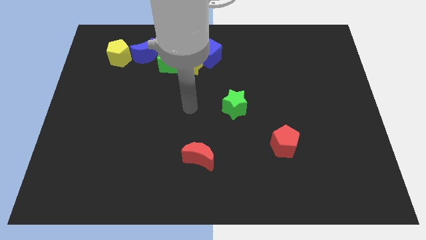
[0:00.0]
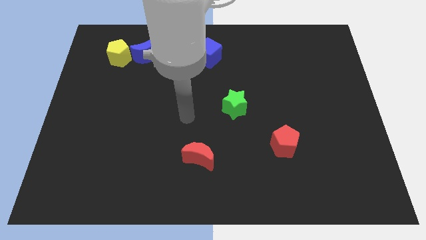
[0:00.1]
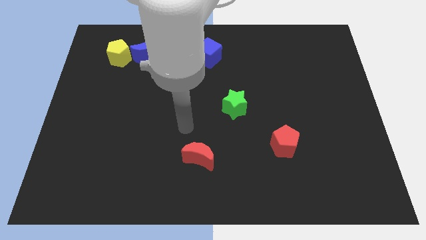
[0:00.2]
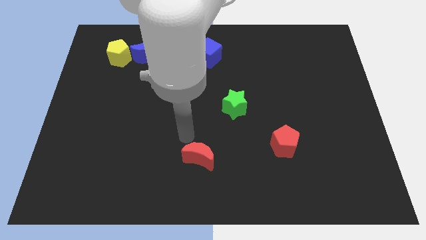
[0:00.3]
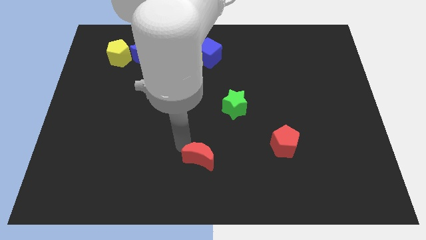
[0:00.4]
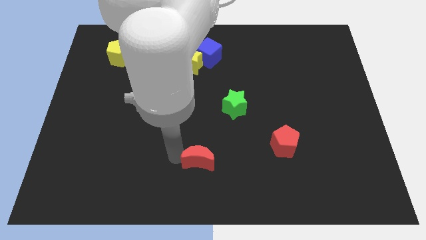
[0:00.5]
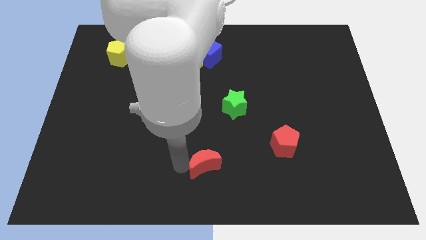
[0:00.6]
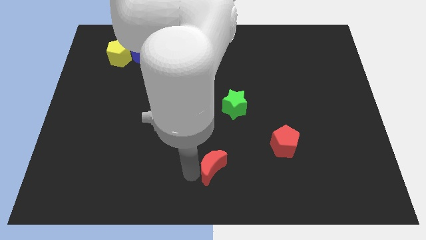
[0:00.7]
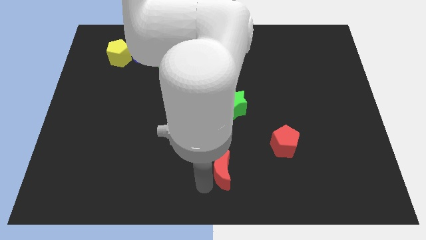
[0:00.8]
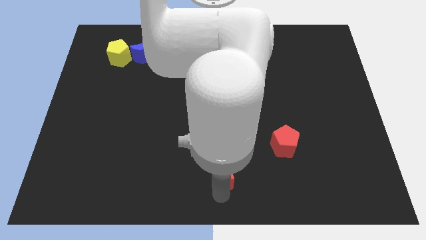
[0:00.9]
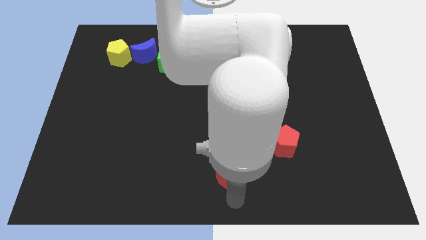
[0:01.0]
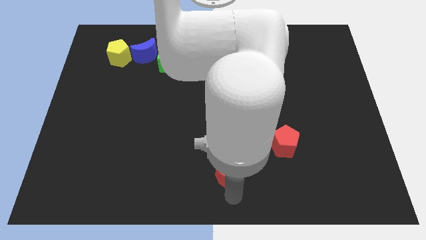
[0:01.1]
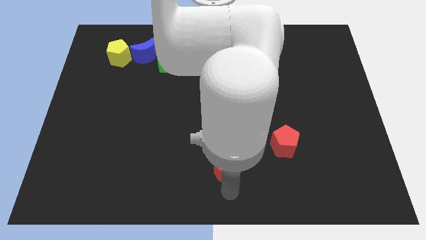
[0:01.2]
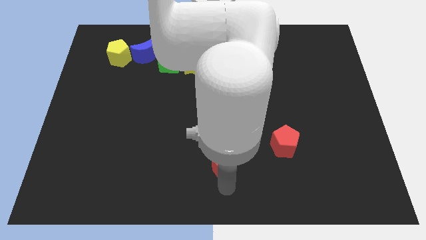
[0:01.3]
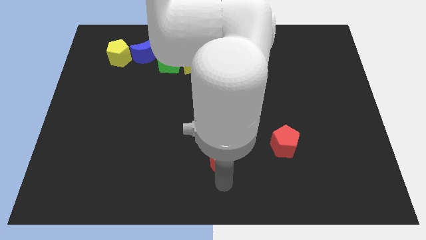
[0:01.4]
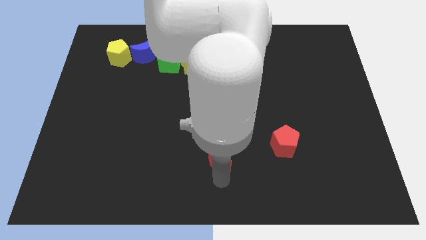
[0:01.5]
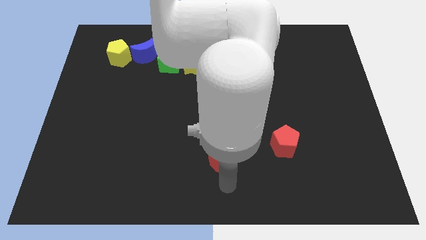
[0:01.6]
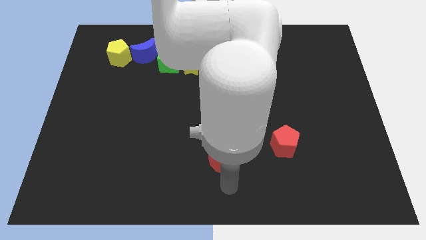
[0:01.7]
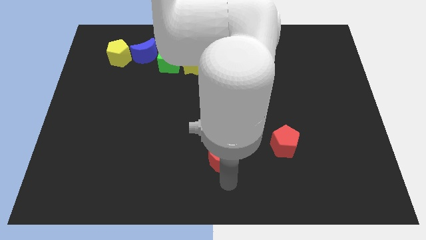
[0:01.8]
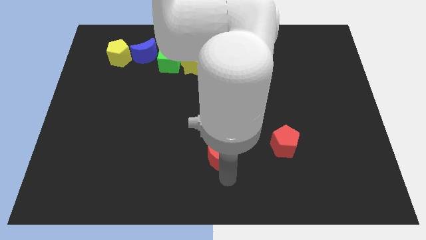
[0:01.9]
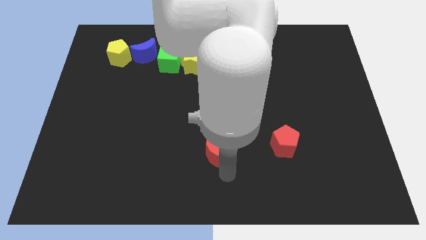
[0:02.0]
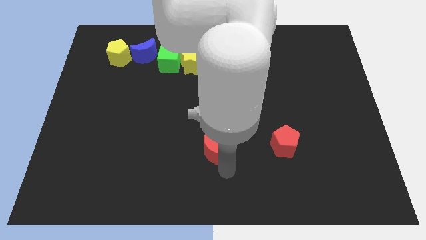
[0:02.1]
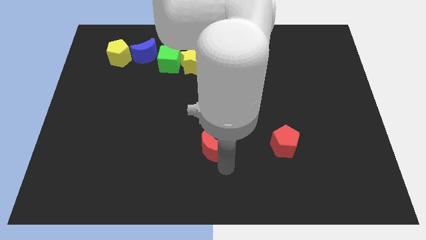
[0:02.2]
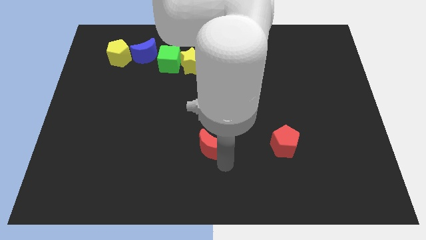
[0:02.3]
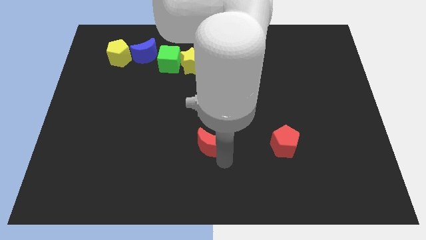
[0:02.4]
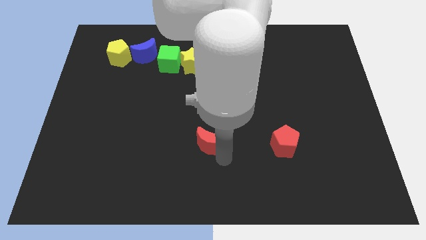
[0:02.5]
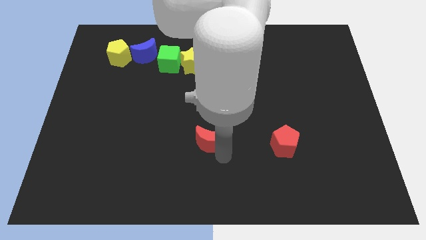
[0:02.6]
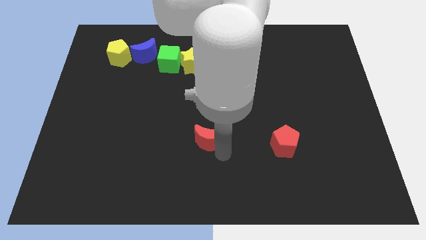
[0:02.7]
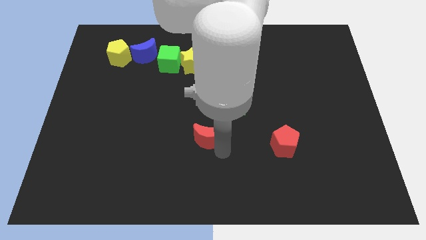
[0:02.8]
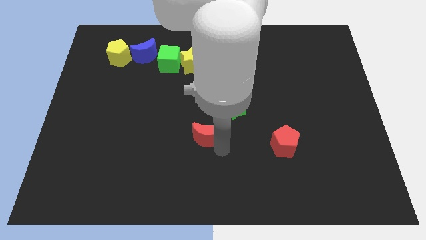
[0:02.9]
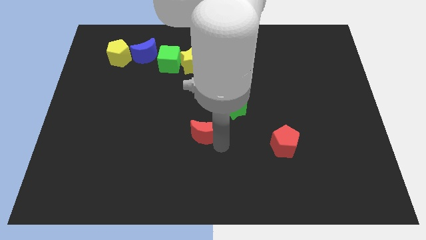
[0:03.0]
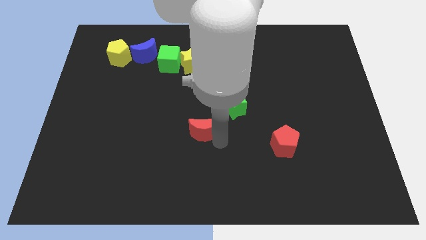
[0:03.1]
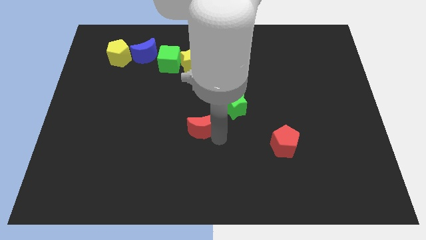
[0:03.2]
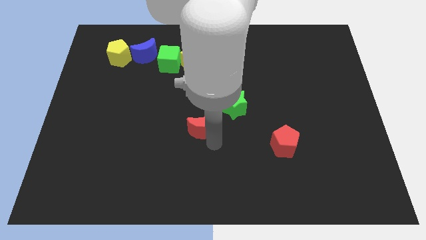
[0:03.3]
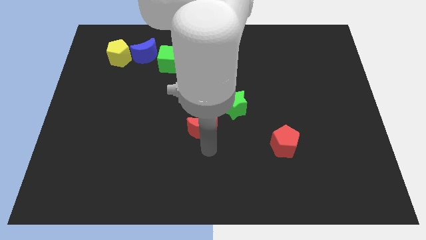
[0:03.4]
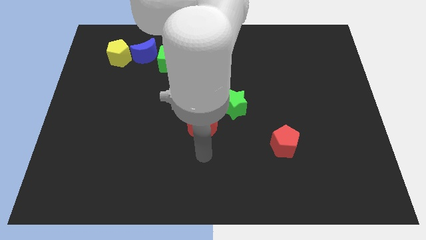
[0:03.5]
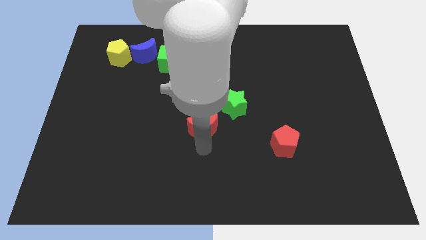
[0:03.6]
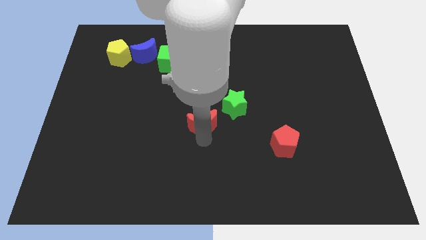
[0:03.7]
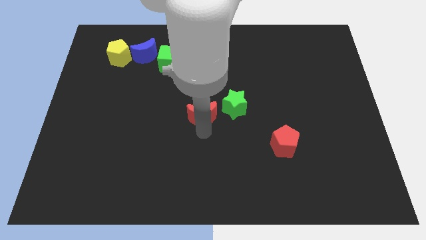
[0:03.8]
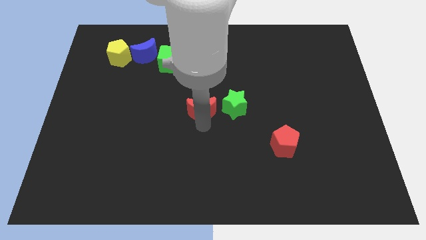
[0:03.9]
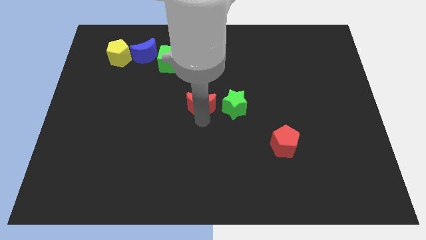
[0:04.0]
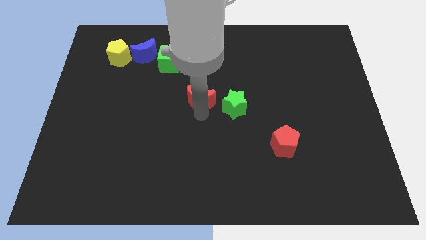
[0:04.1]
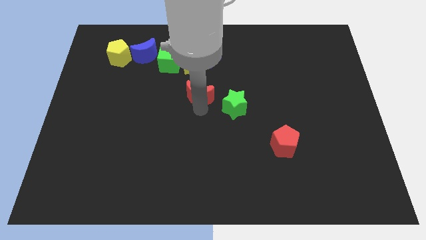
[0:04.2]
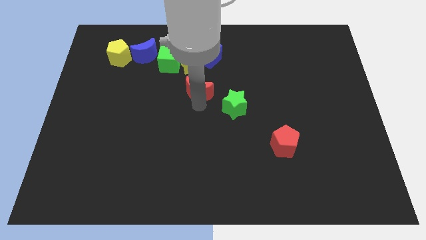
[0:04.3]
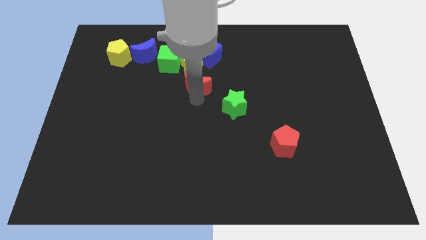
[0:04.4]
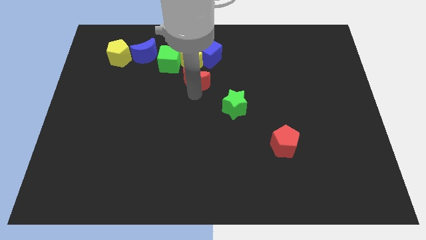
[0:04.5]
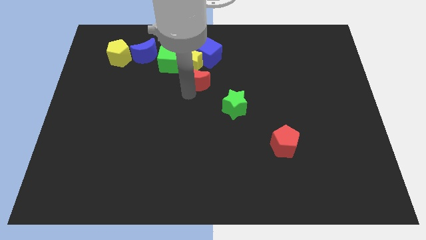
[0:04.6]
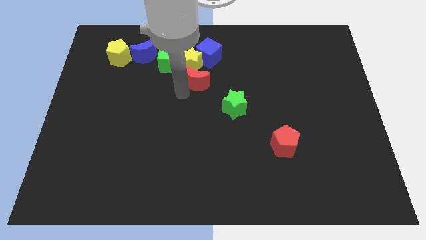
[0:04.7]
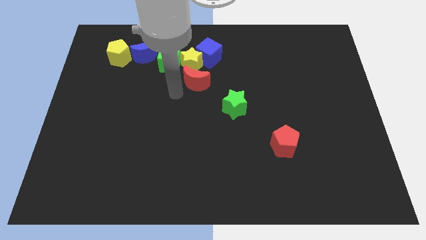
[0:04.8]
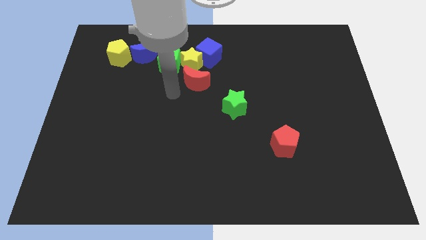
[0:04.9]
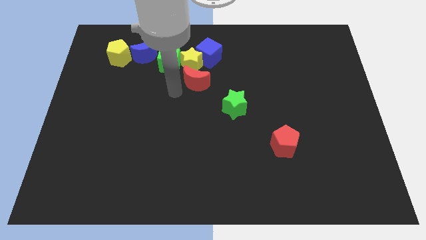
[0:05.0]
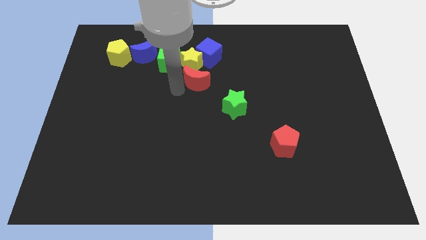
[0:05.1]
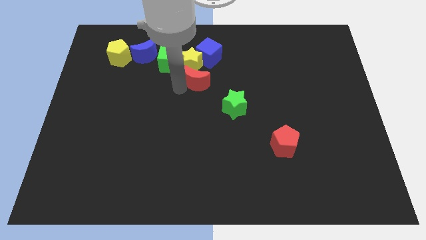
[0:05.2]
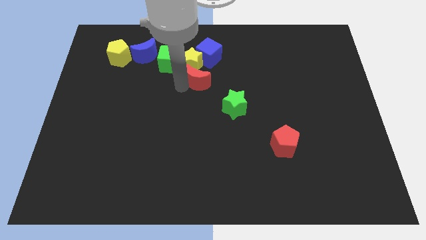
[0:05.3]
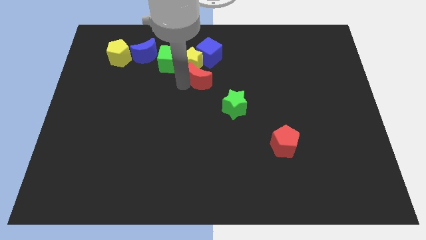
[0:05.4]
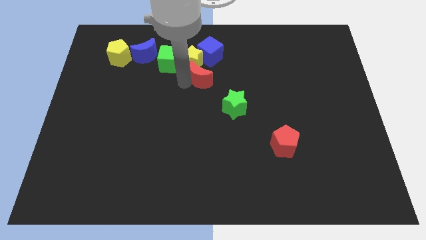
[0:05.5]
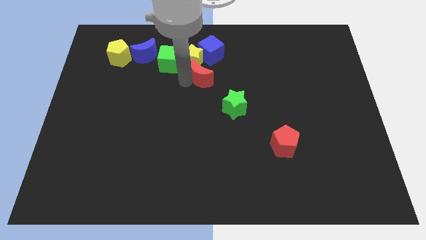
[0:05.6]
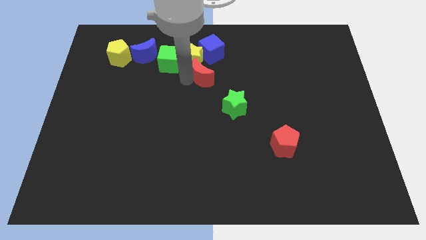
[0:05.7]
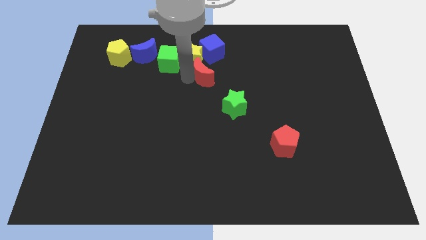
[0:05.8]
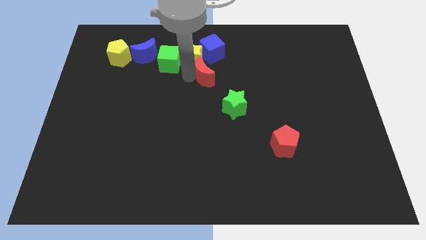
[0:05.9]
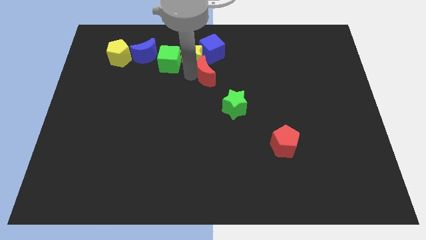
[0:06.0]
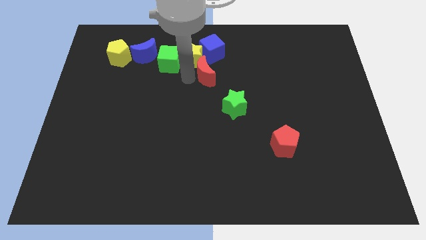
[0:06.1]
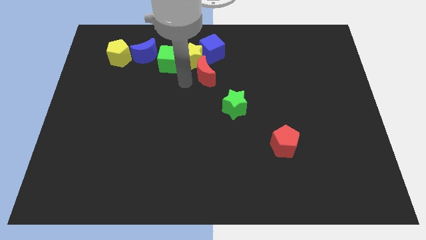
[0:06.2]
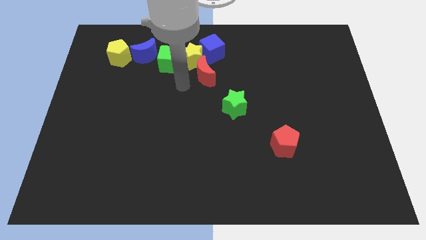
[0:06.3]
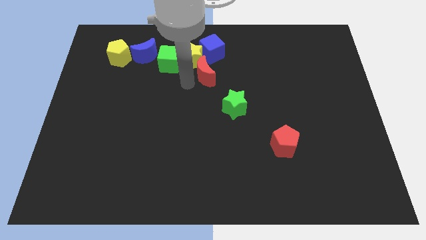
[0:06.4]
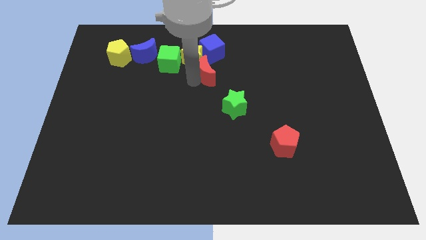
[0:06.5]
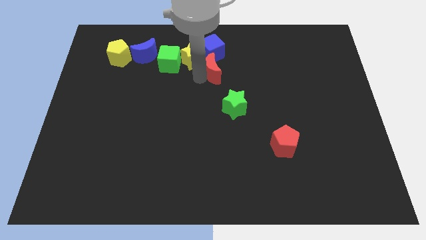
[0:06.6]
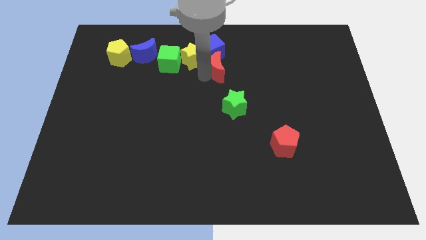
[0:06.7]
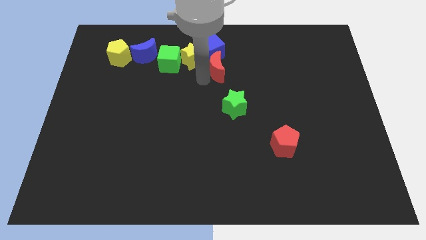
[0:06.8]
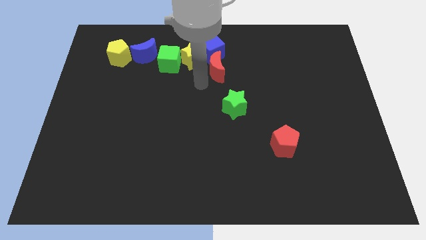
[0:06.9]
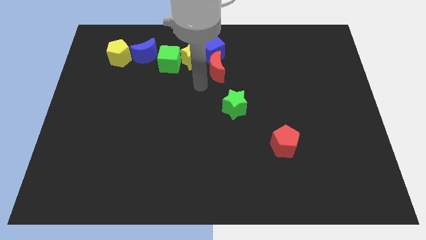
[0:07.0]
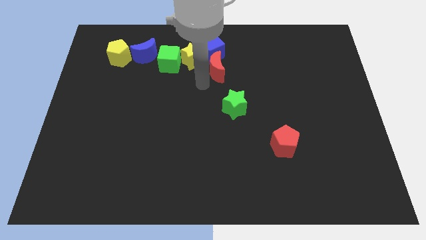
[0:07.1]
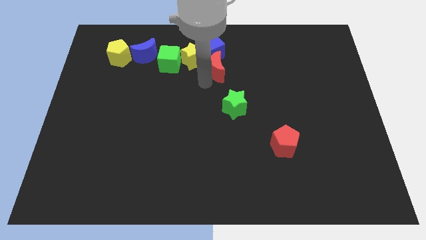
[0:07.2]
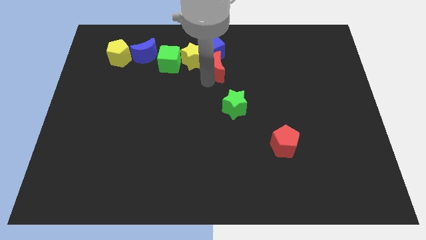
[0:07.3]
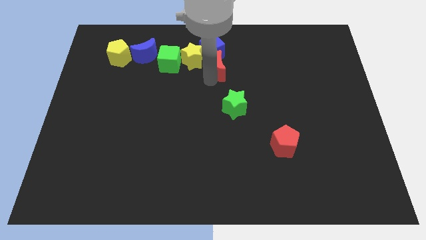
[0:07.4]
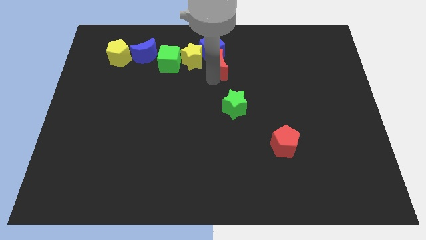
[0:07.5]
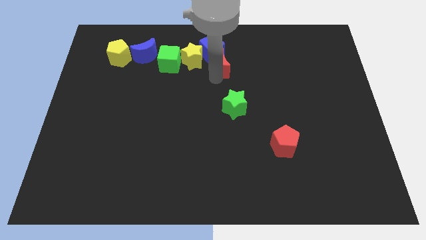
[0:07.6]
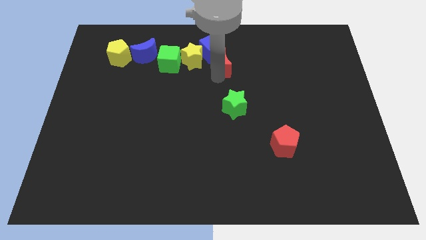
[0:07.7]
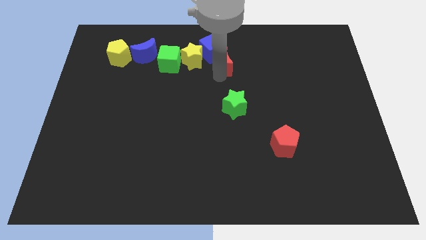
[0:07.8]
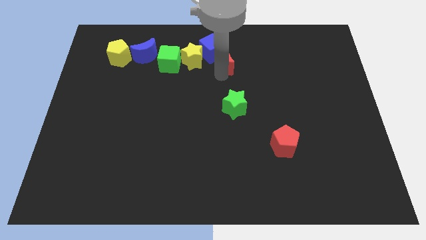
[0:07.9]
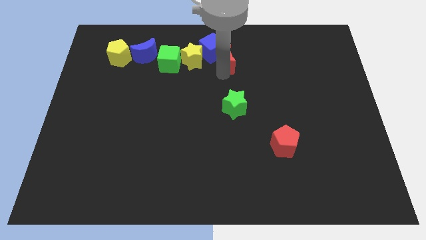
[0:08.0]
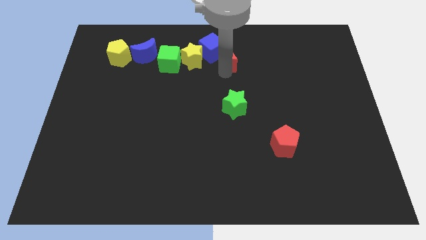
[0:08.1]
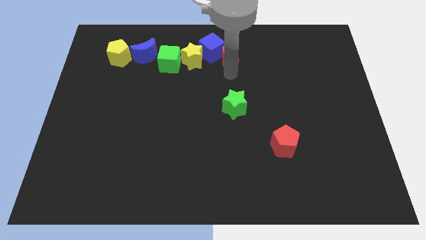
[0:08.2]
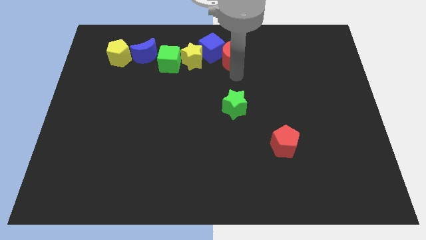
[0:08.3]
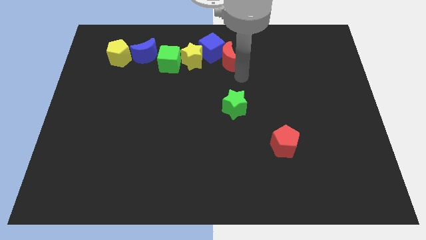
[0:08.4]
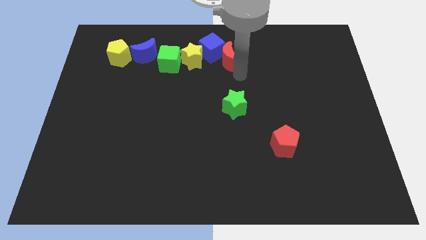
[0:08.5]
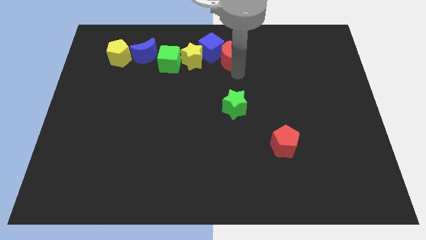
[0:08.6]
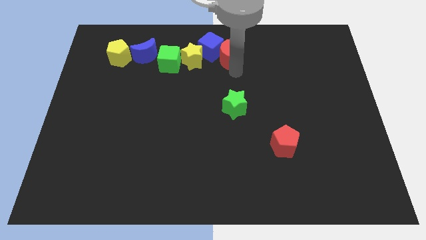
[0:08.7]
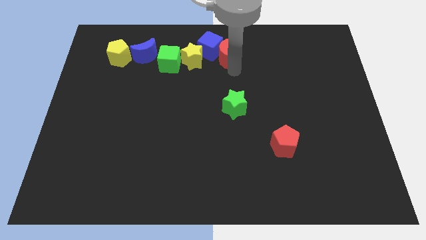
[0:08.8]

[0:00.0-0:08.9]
slide the red moon to the top
